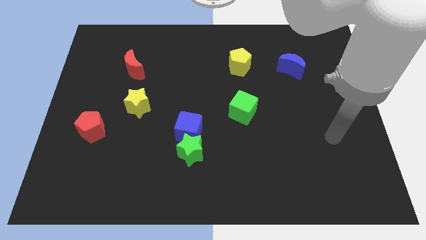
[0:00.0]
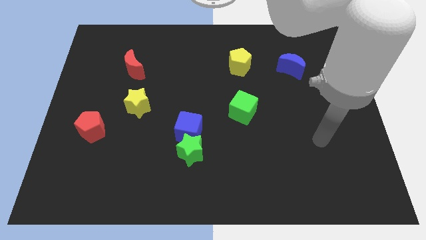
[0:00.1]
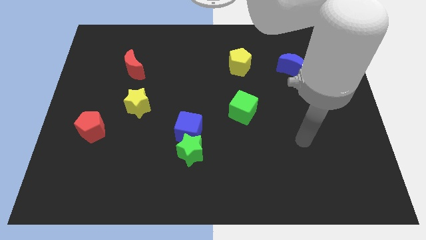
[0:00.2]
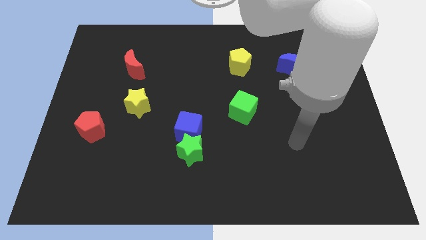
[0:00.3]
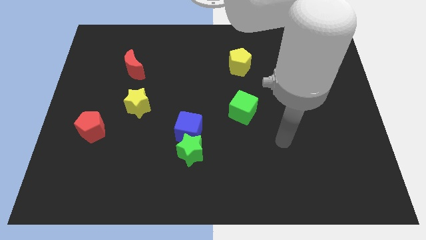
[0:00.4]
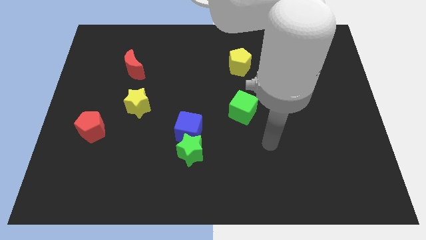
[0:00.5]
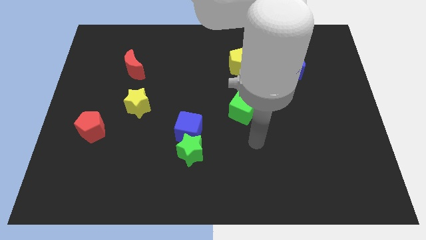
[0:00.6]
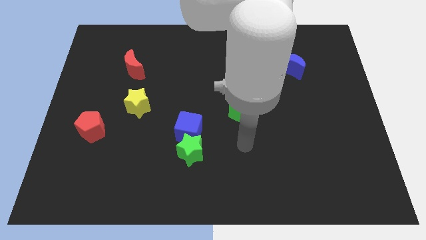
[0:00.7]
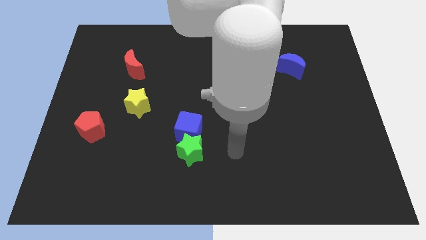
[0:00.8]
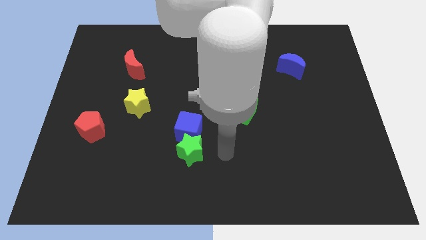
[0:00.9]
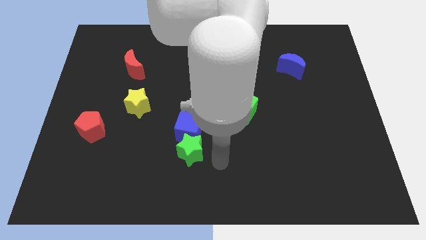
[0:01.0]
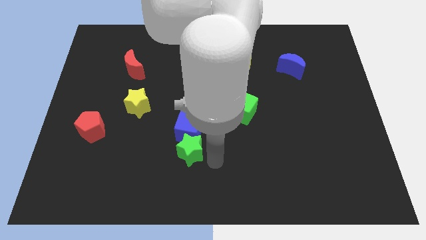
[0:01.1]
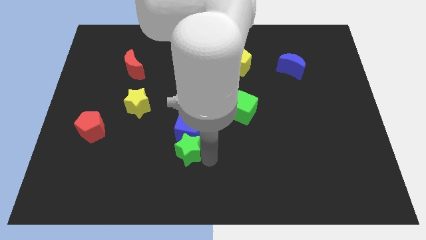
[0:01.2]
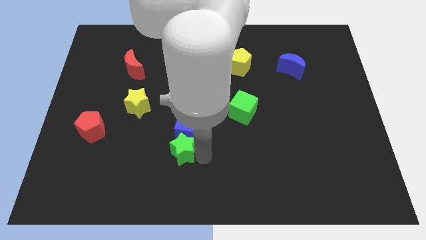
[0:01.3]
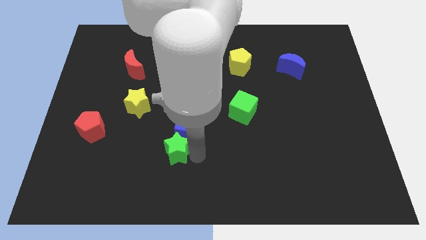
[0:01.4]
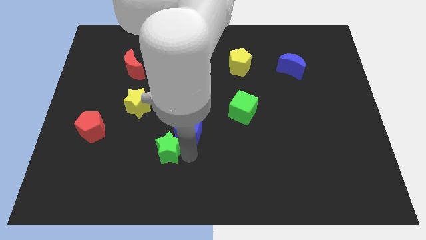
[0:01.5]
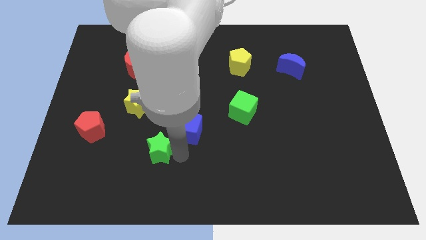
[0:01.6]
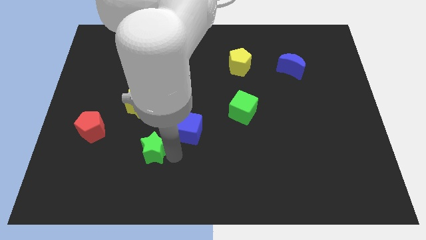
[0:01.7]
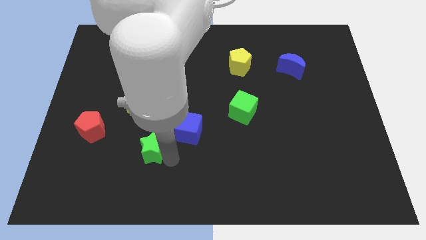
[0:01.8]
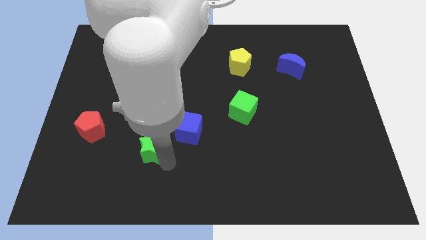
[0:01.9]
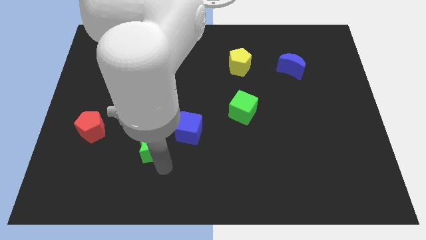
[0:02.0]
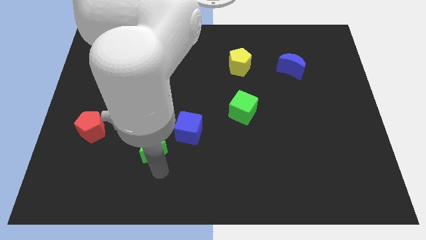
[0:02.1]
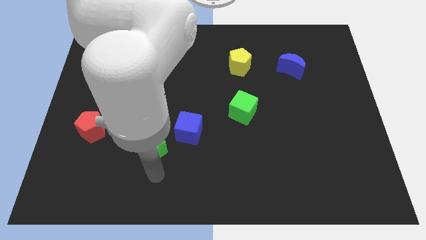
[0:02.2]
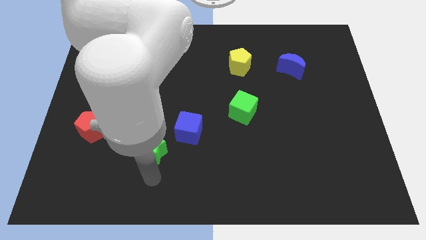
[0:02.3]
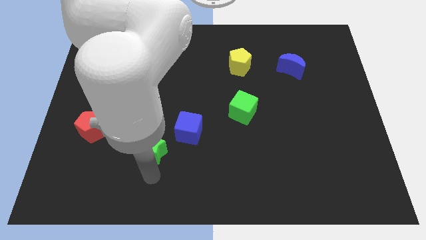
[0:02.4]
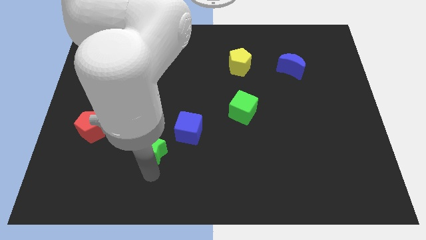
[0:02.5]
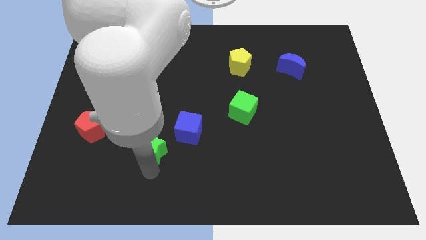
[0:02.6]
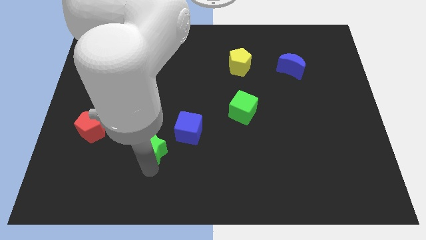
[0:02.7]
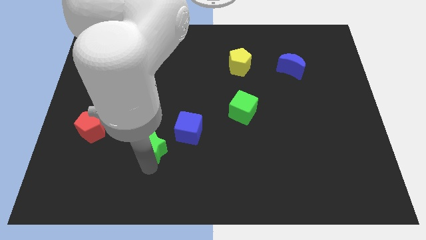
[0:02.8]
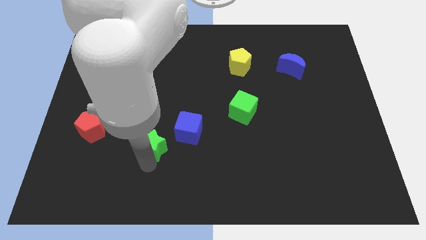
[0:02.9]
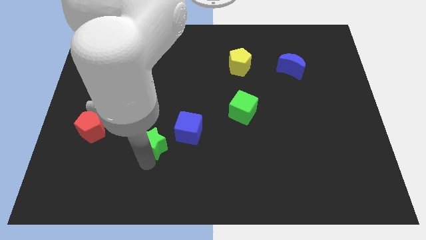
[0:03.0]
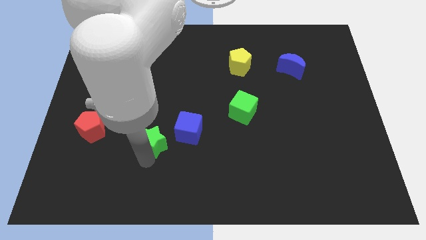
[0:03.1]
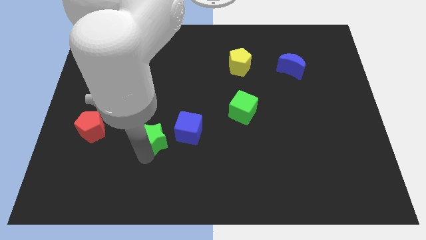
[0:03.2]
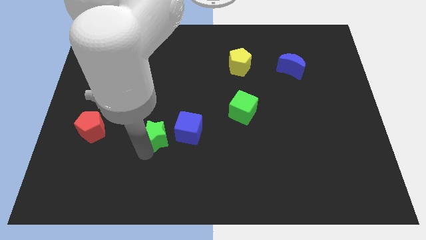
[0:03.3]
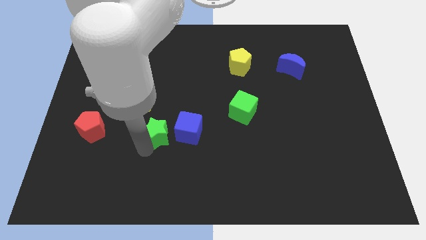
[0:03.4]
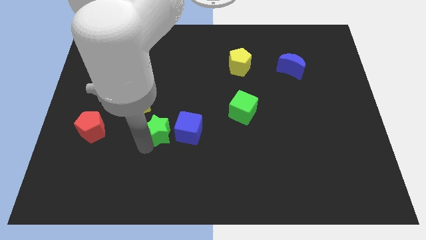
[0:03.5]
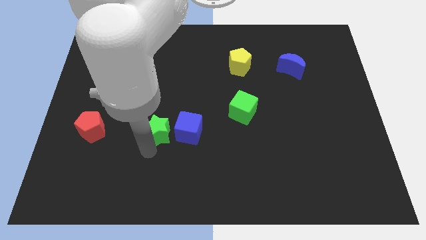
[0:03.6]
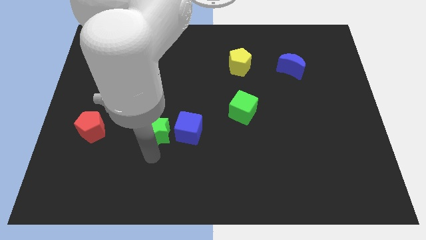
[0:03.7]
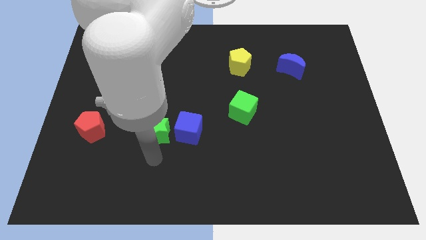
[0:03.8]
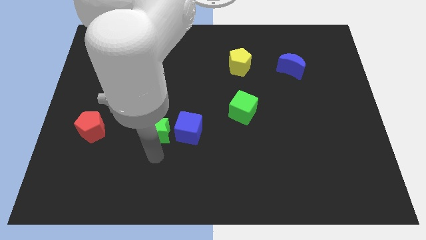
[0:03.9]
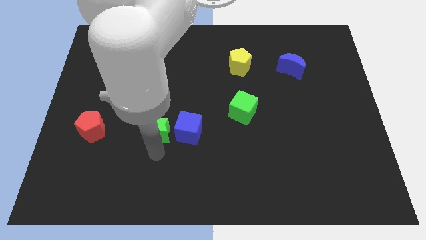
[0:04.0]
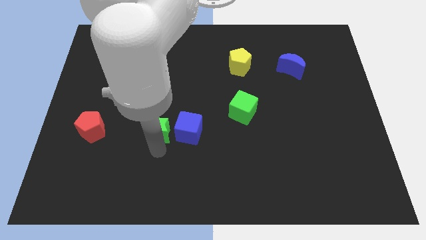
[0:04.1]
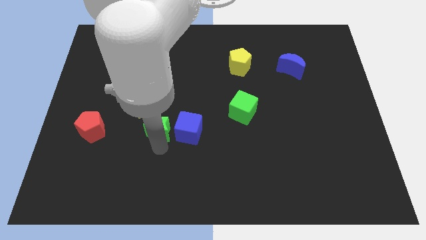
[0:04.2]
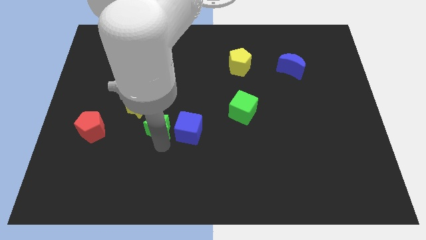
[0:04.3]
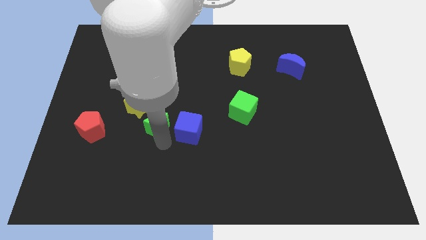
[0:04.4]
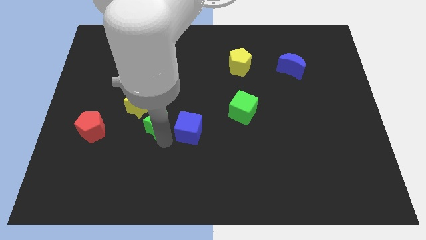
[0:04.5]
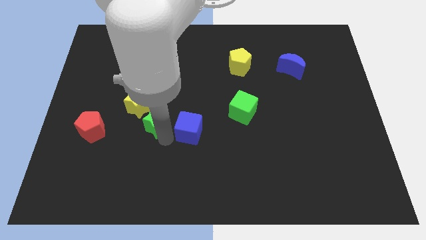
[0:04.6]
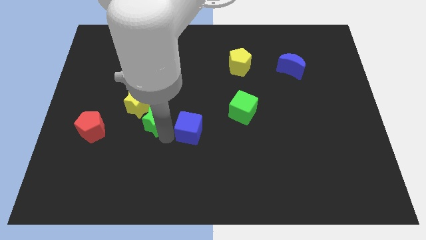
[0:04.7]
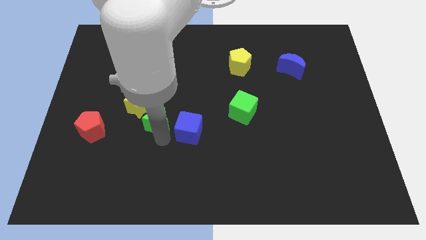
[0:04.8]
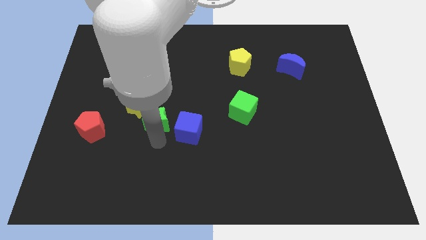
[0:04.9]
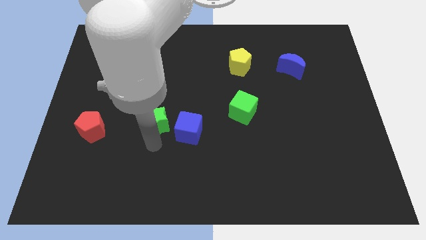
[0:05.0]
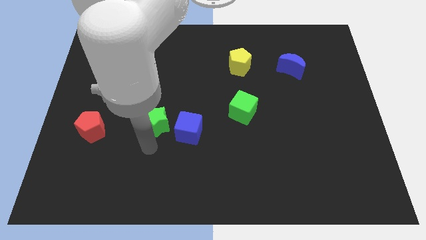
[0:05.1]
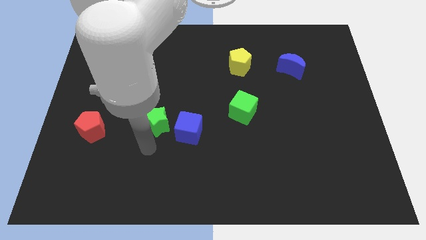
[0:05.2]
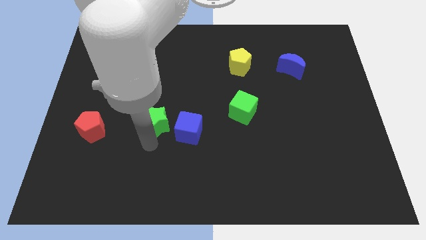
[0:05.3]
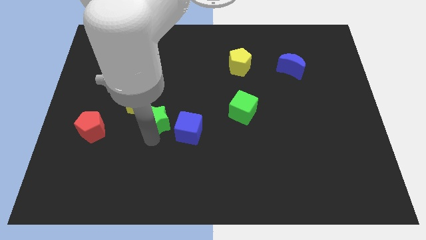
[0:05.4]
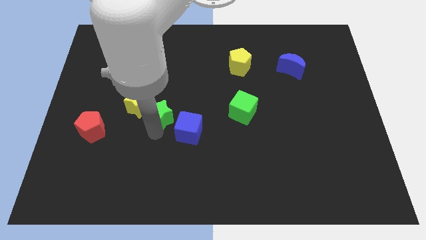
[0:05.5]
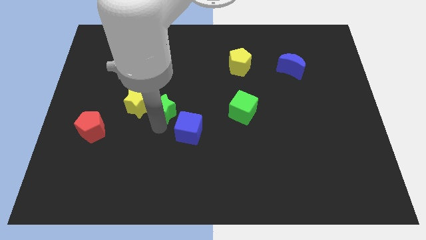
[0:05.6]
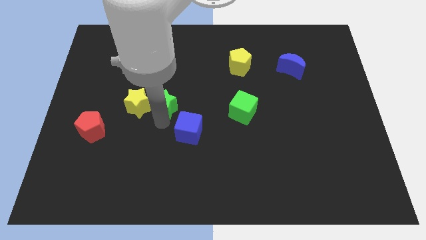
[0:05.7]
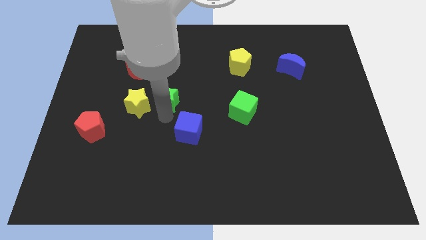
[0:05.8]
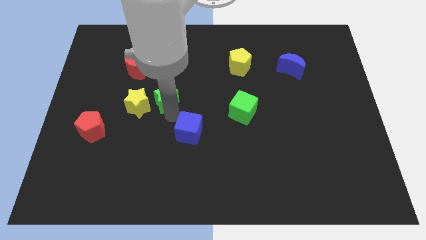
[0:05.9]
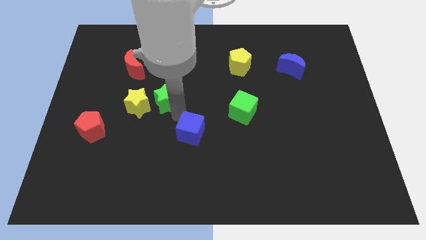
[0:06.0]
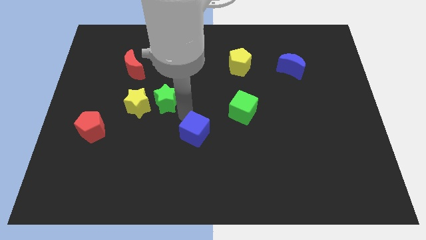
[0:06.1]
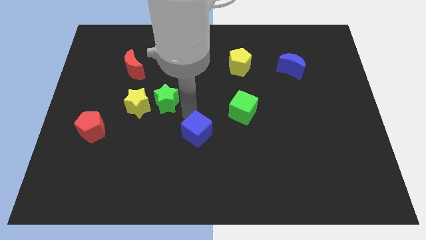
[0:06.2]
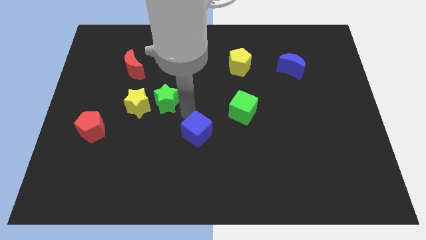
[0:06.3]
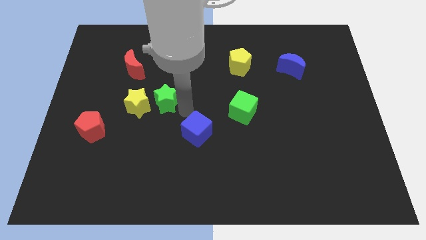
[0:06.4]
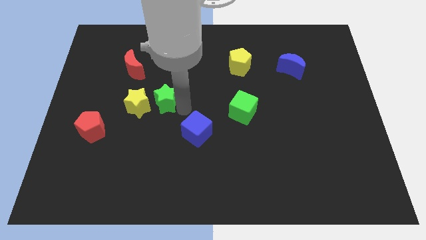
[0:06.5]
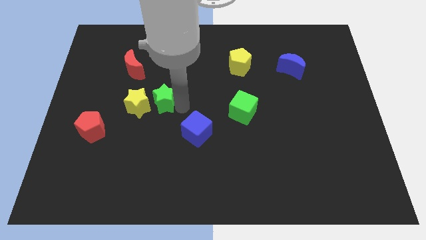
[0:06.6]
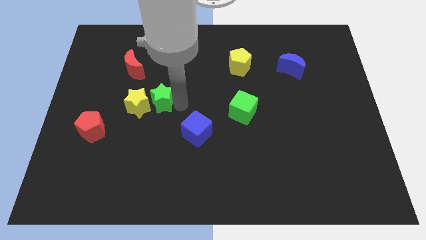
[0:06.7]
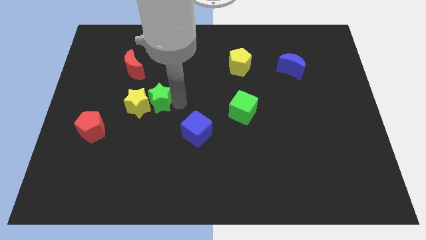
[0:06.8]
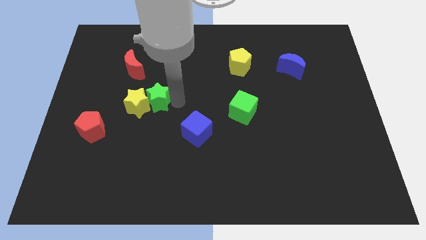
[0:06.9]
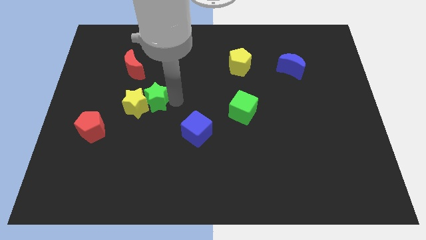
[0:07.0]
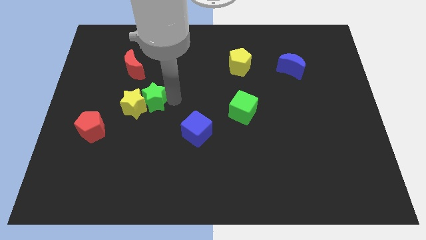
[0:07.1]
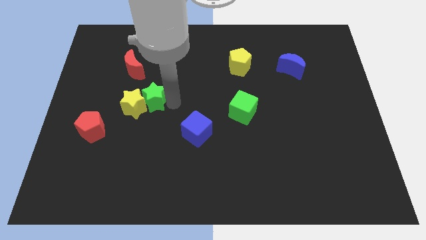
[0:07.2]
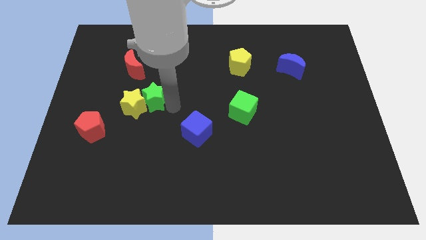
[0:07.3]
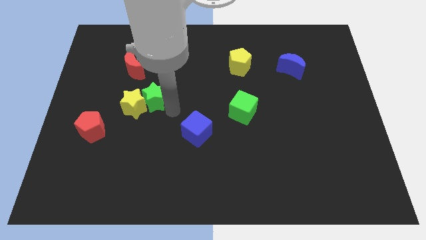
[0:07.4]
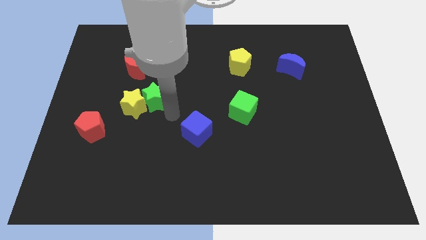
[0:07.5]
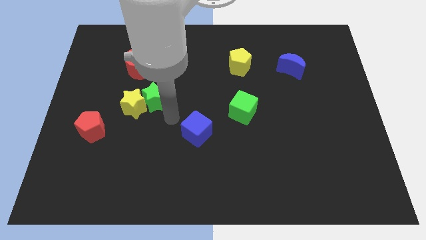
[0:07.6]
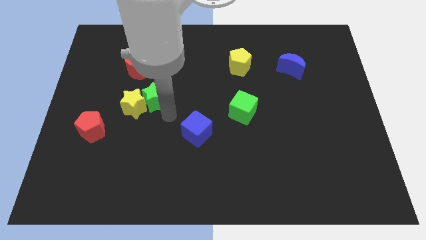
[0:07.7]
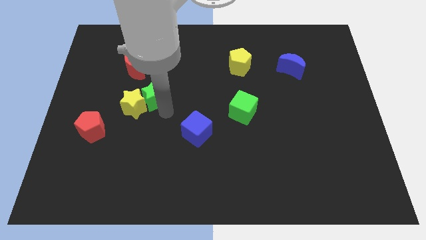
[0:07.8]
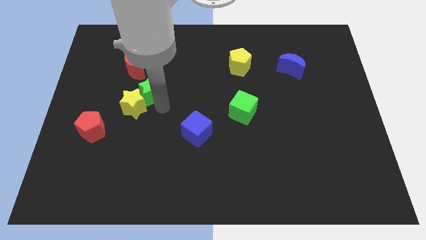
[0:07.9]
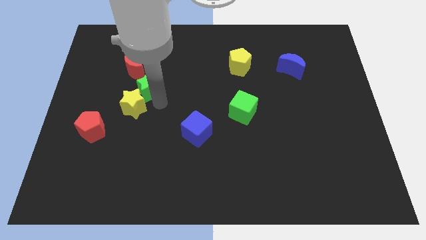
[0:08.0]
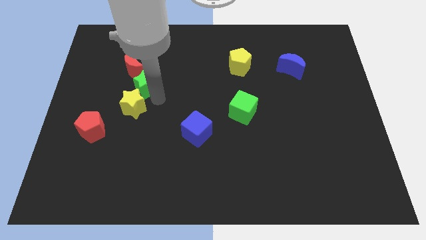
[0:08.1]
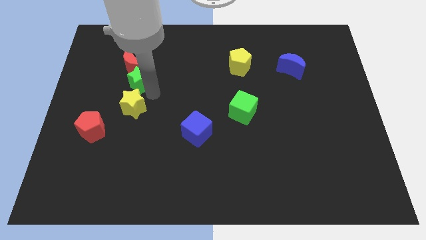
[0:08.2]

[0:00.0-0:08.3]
slide the green star to the red moon
